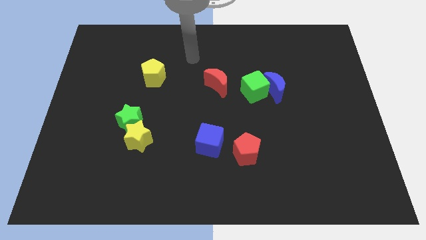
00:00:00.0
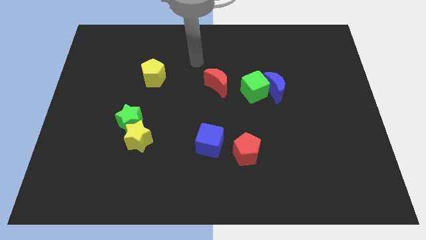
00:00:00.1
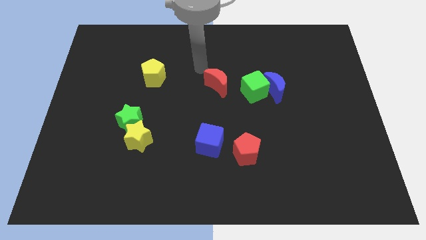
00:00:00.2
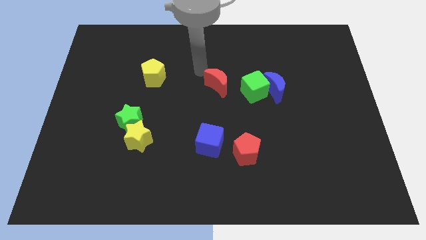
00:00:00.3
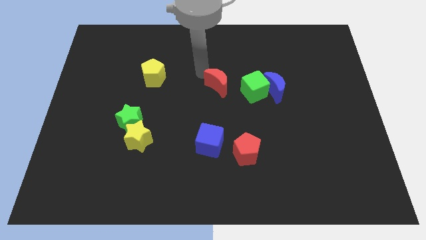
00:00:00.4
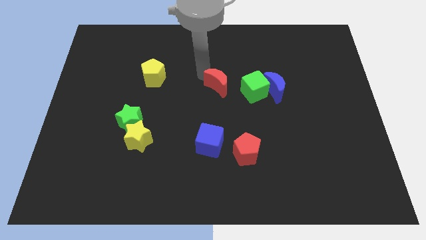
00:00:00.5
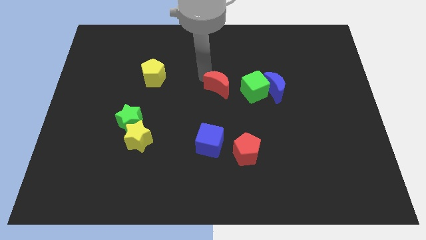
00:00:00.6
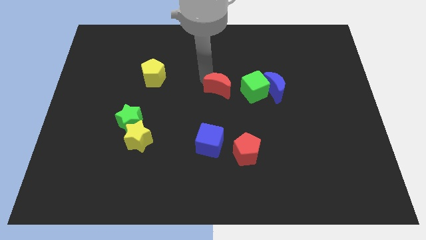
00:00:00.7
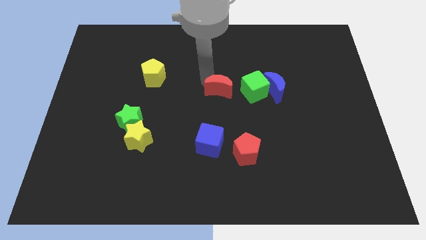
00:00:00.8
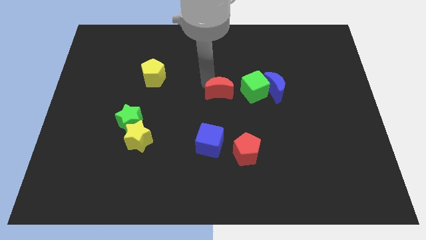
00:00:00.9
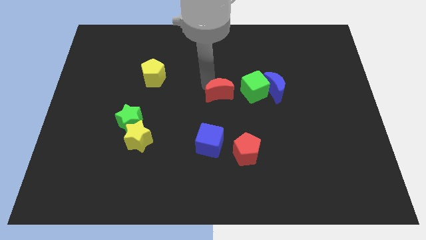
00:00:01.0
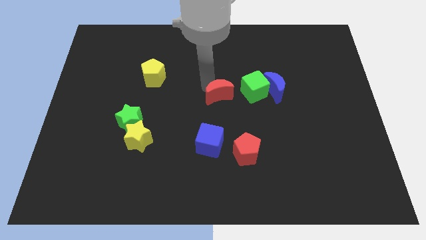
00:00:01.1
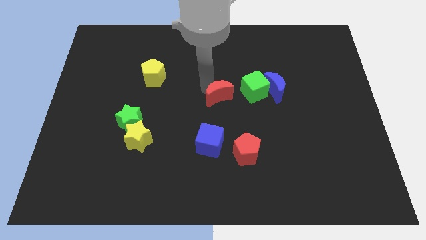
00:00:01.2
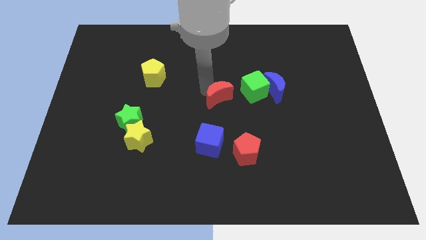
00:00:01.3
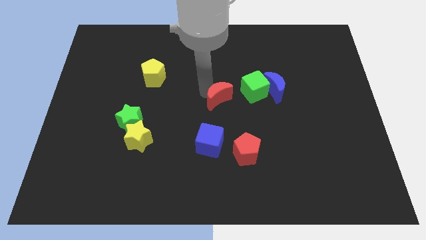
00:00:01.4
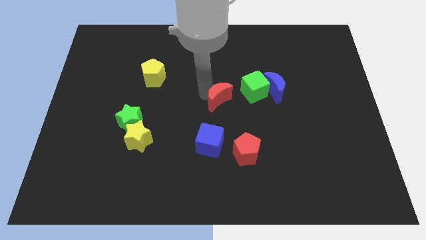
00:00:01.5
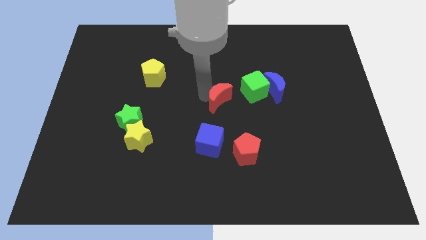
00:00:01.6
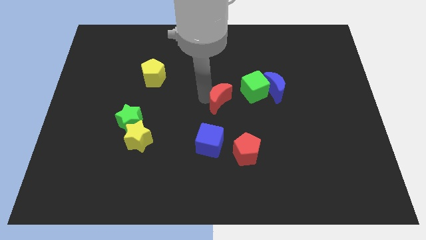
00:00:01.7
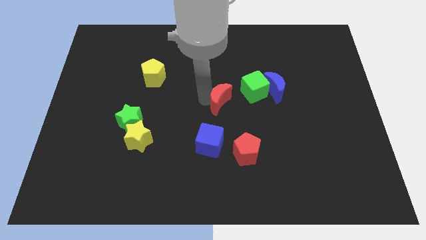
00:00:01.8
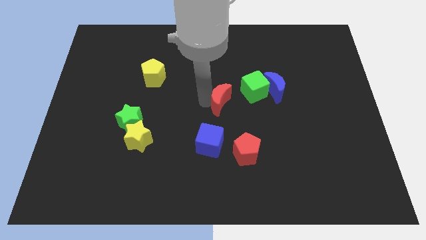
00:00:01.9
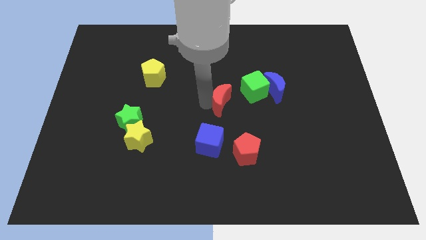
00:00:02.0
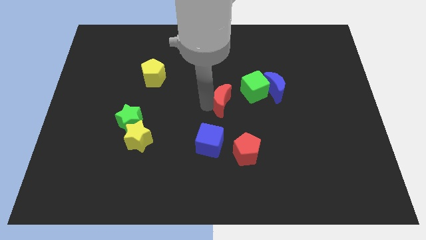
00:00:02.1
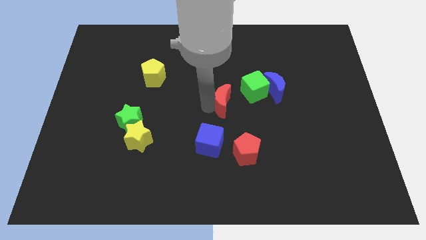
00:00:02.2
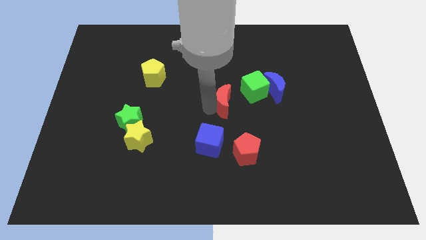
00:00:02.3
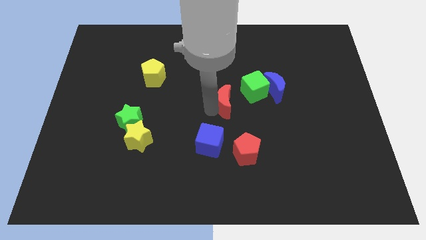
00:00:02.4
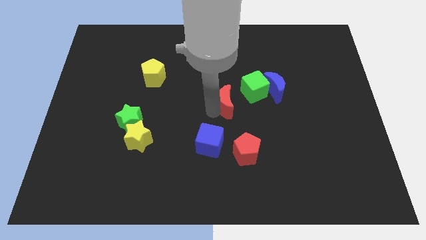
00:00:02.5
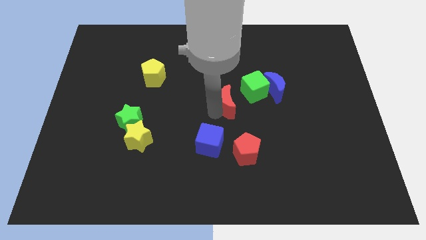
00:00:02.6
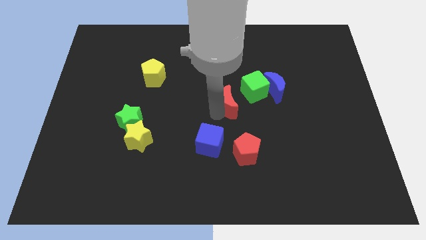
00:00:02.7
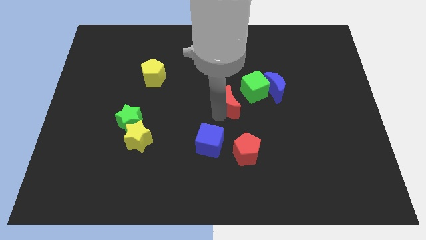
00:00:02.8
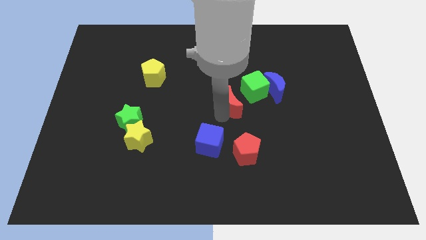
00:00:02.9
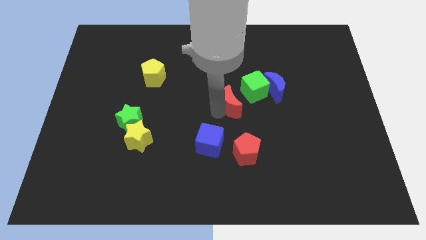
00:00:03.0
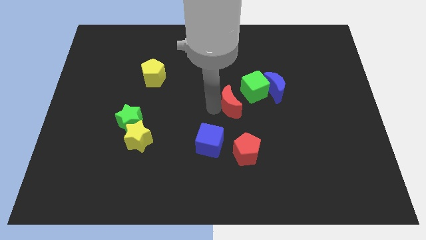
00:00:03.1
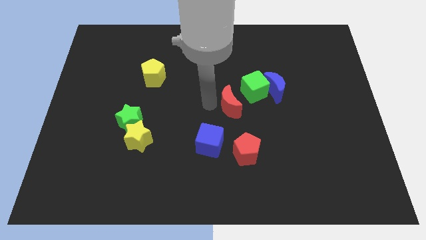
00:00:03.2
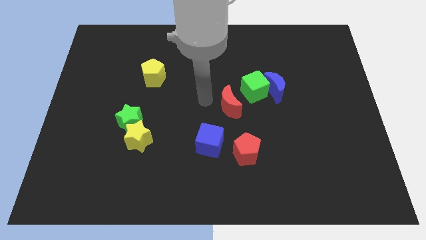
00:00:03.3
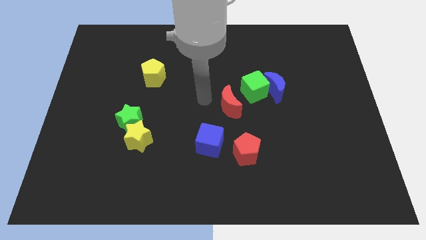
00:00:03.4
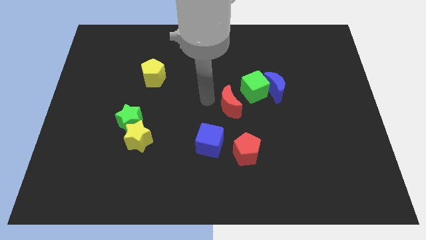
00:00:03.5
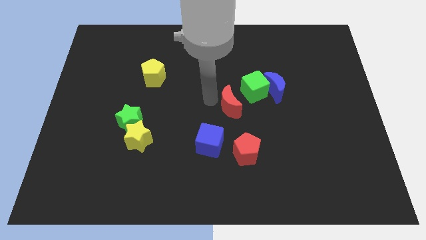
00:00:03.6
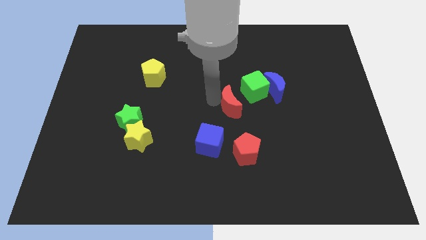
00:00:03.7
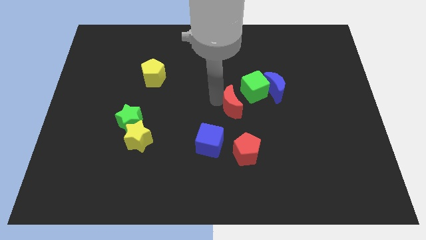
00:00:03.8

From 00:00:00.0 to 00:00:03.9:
slide the red moon down and right diagonally a bit

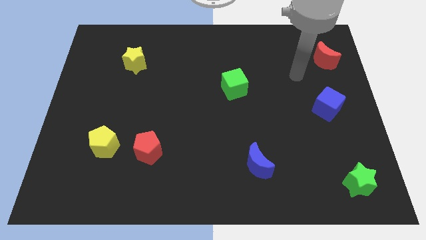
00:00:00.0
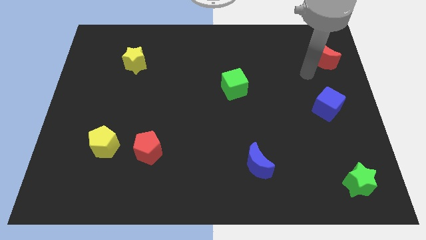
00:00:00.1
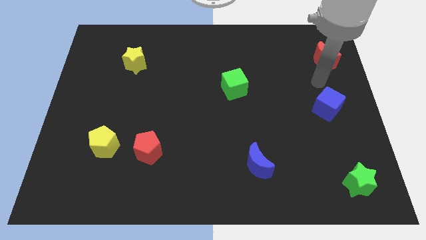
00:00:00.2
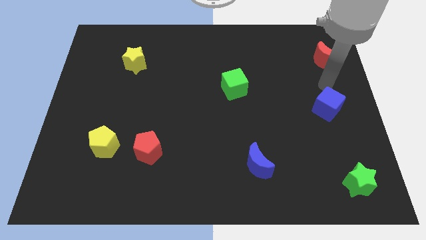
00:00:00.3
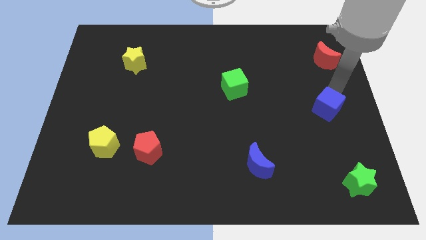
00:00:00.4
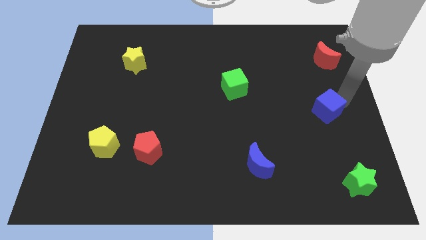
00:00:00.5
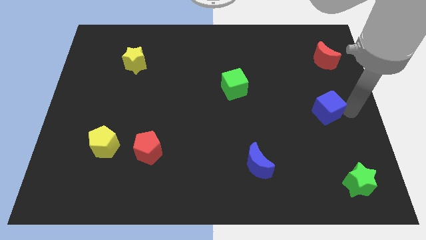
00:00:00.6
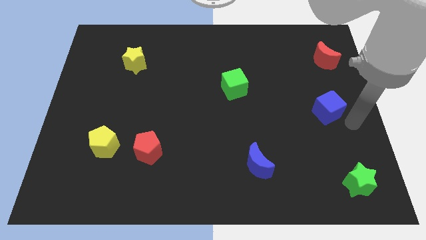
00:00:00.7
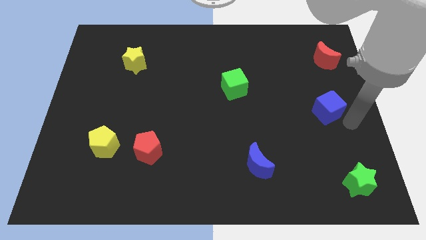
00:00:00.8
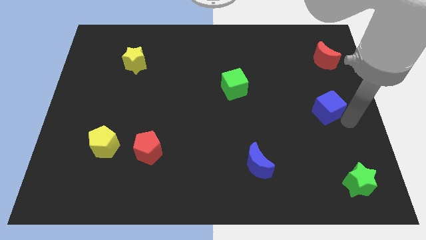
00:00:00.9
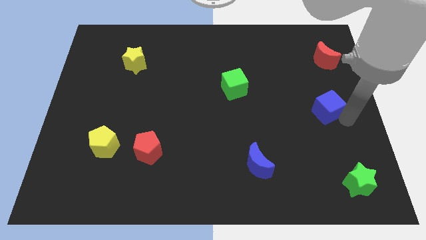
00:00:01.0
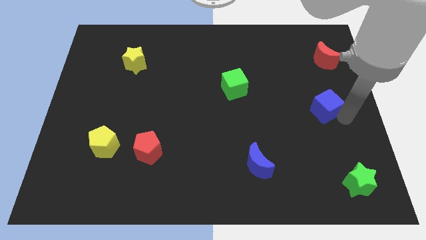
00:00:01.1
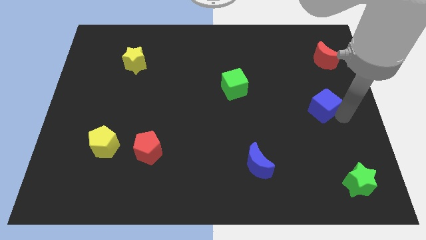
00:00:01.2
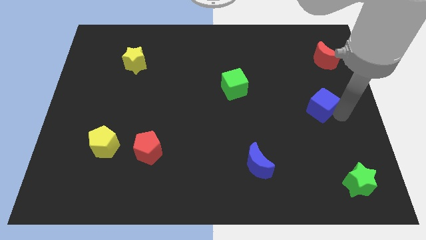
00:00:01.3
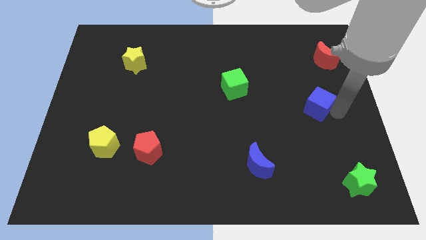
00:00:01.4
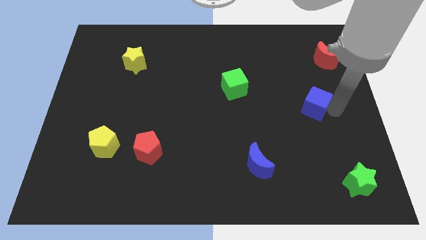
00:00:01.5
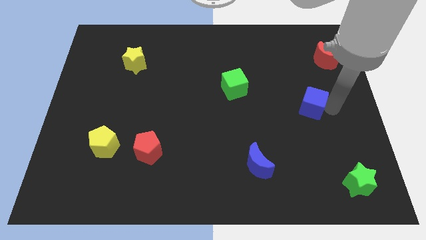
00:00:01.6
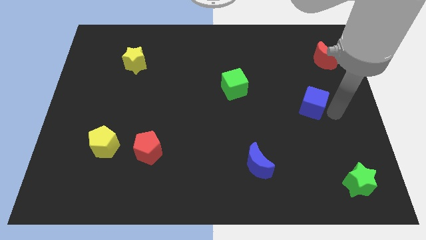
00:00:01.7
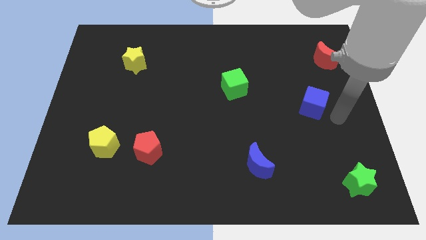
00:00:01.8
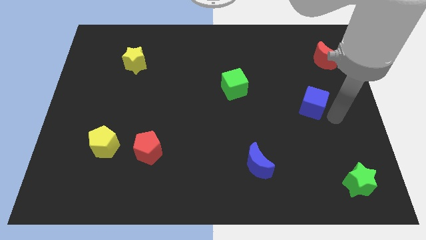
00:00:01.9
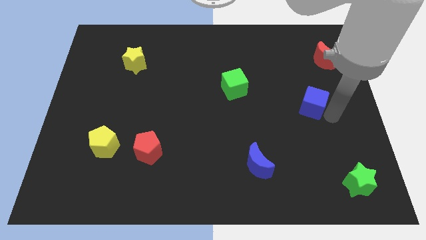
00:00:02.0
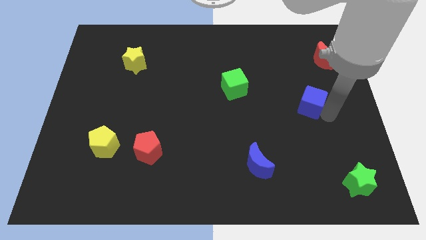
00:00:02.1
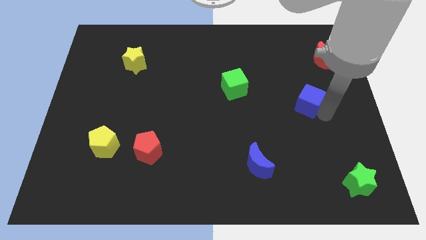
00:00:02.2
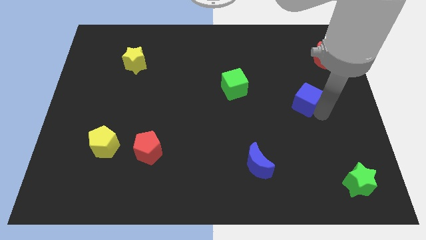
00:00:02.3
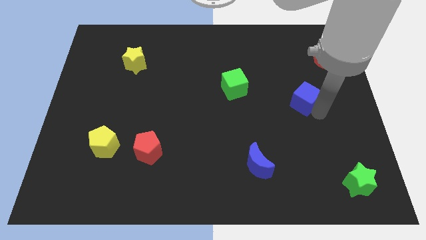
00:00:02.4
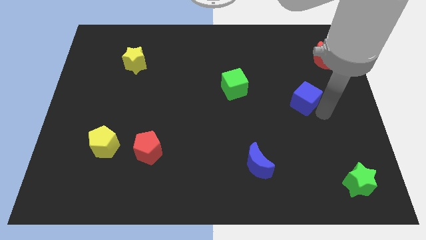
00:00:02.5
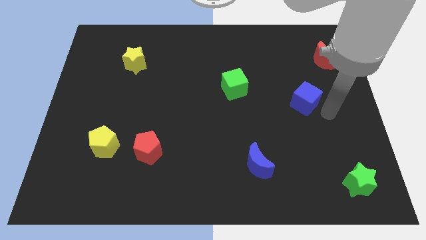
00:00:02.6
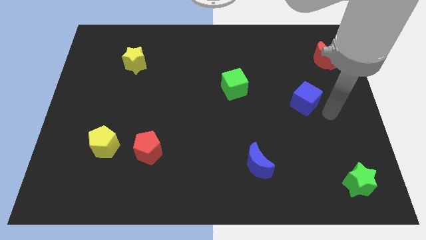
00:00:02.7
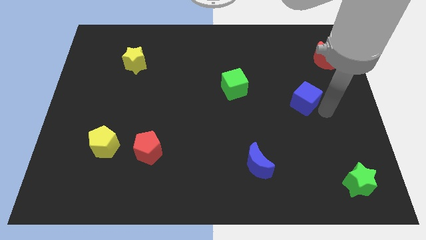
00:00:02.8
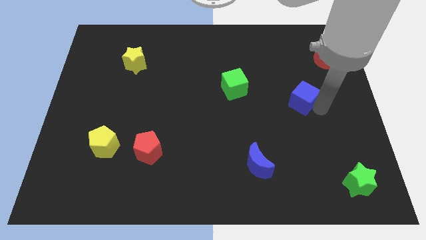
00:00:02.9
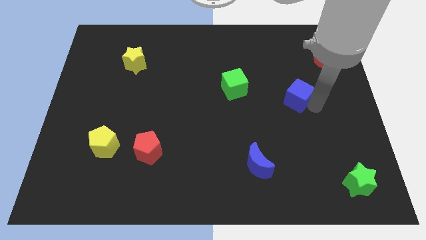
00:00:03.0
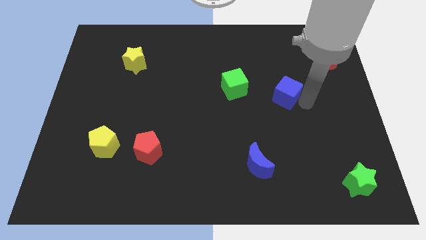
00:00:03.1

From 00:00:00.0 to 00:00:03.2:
move the blue cube up and left diagonally a little bit

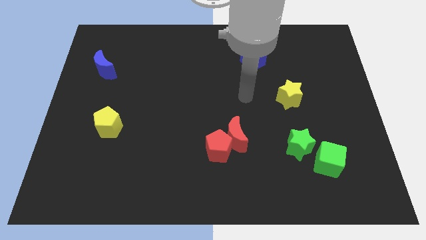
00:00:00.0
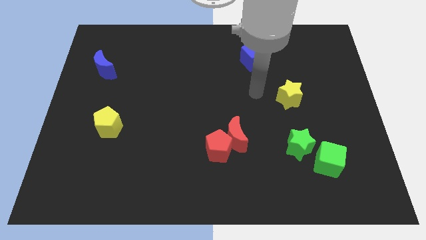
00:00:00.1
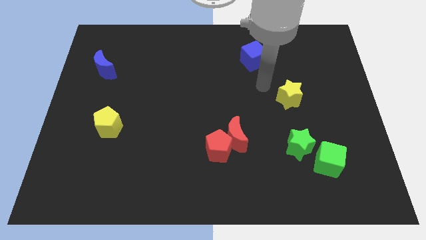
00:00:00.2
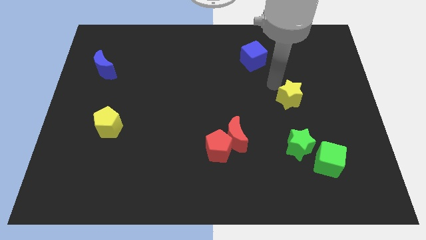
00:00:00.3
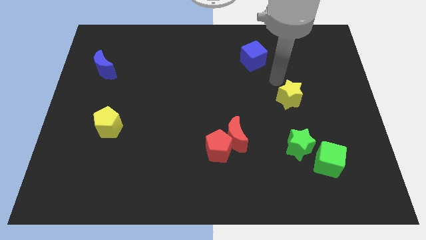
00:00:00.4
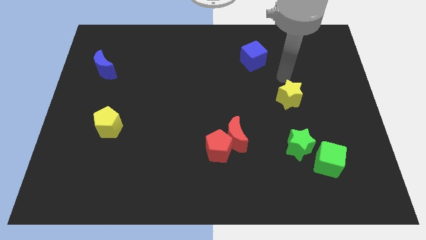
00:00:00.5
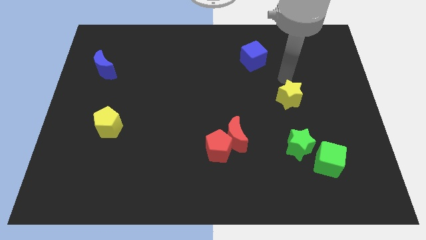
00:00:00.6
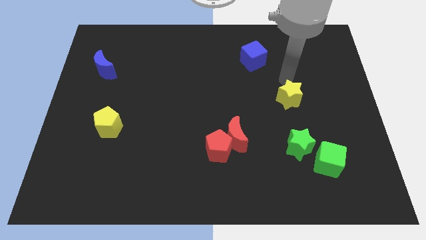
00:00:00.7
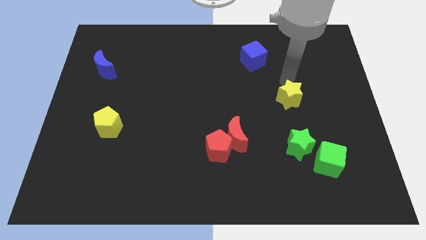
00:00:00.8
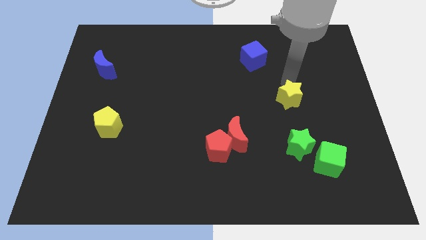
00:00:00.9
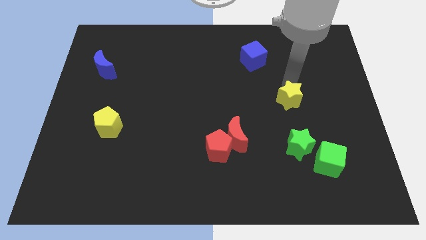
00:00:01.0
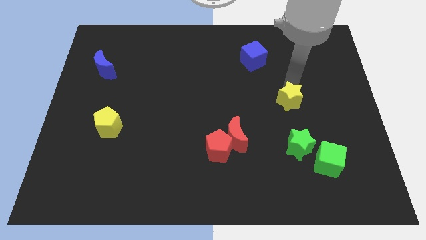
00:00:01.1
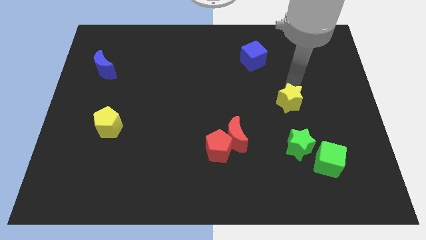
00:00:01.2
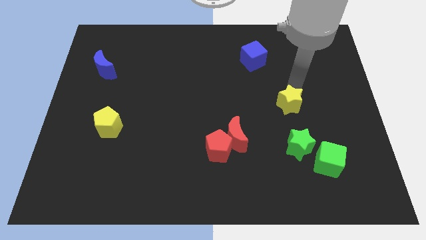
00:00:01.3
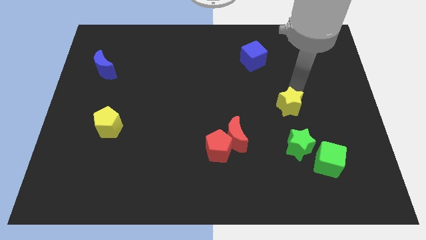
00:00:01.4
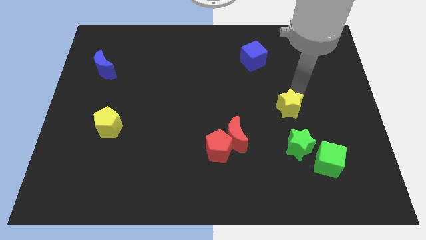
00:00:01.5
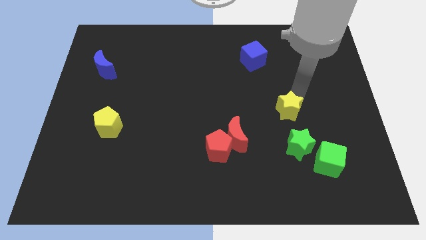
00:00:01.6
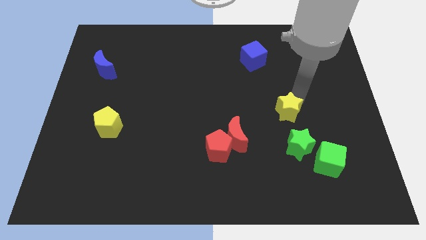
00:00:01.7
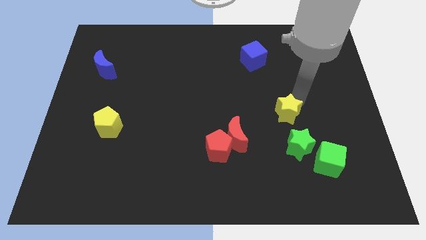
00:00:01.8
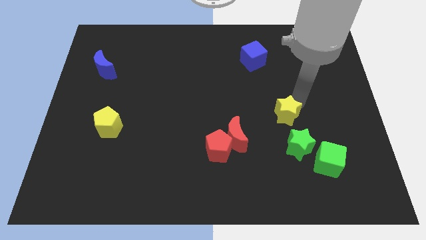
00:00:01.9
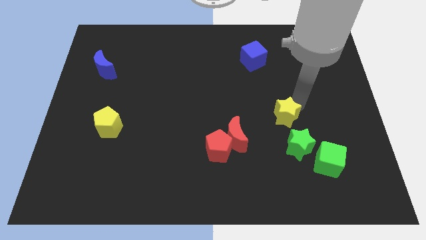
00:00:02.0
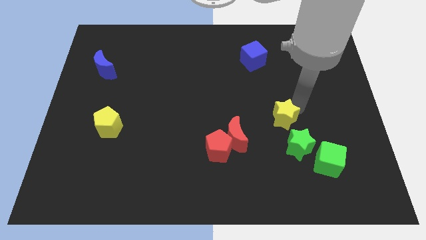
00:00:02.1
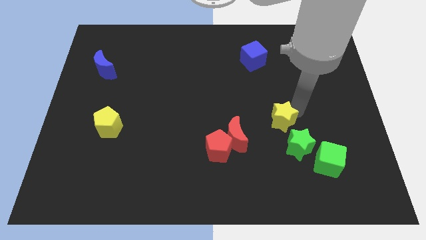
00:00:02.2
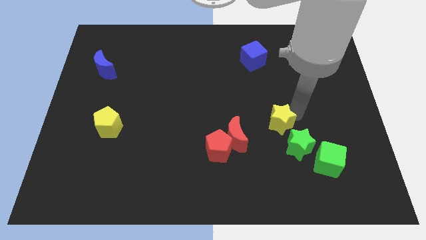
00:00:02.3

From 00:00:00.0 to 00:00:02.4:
slightly slide the yellow star down
